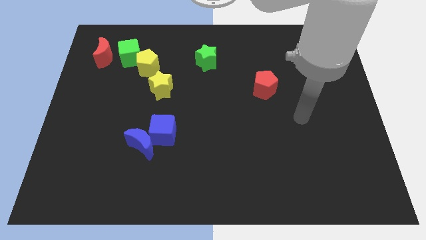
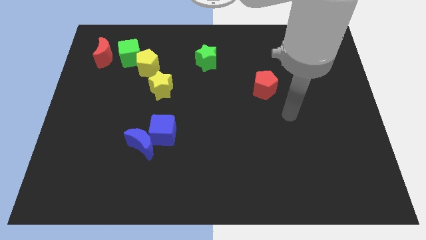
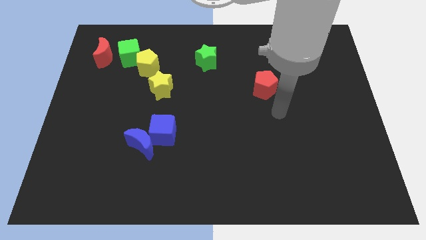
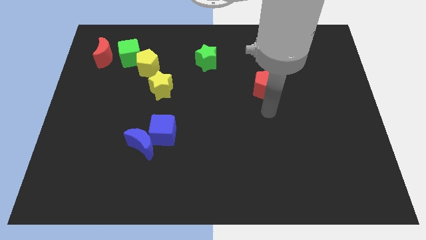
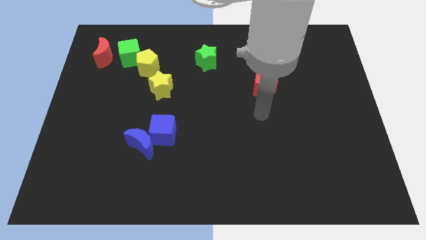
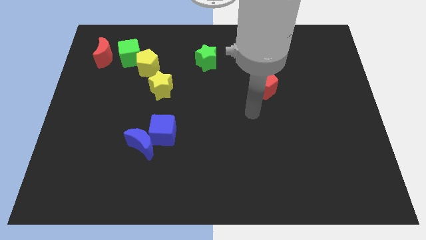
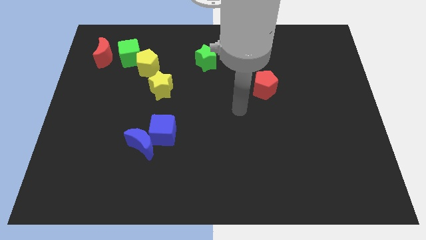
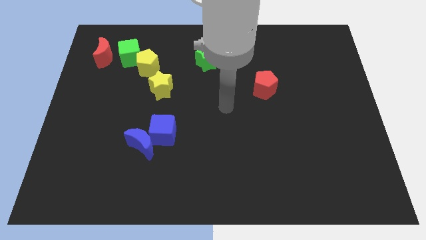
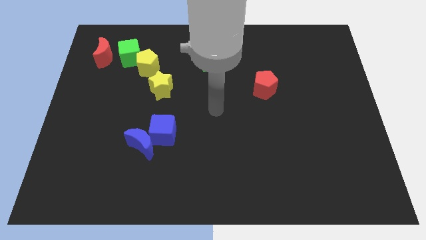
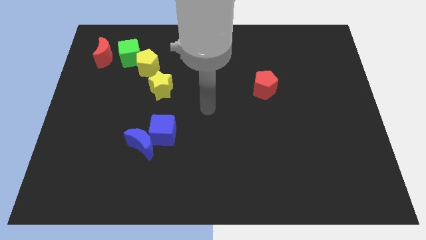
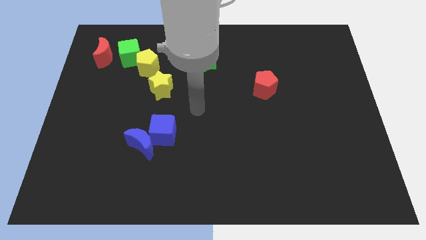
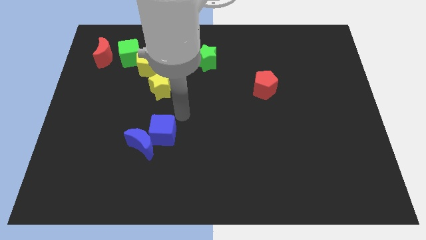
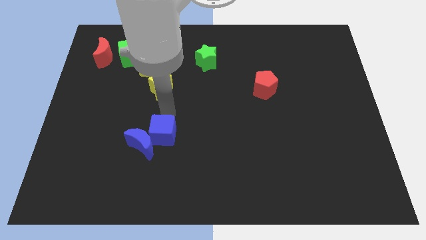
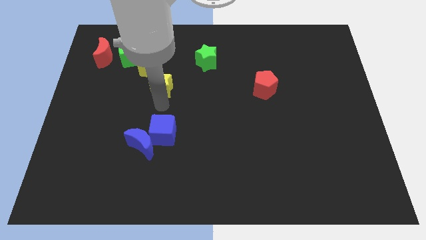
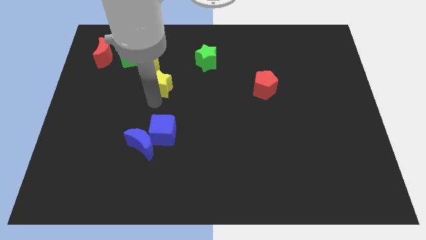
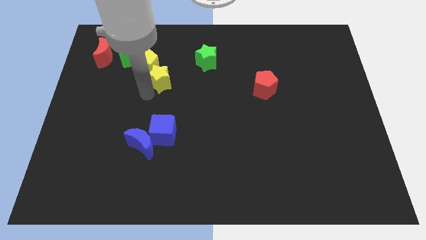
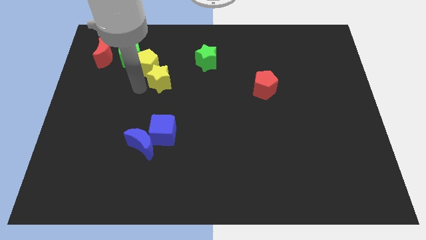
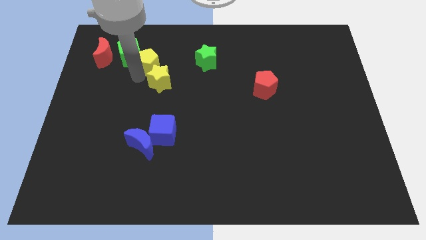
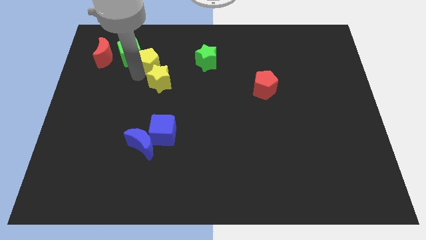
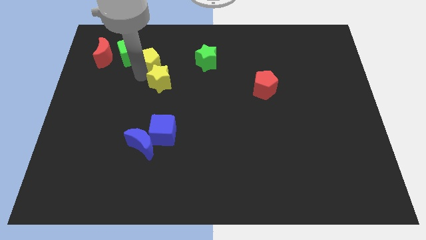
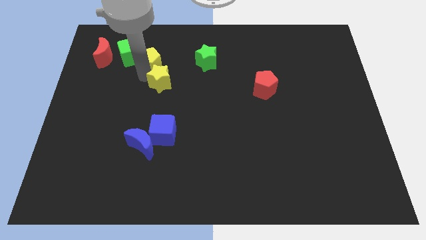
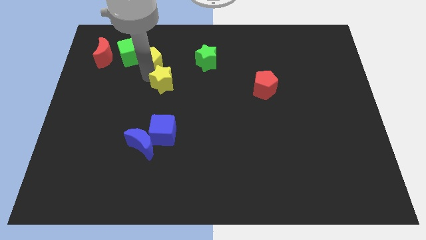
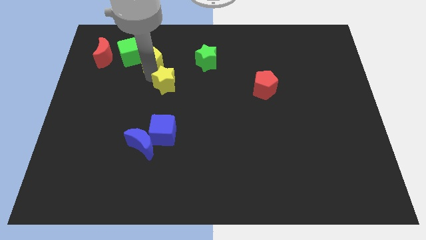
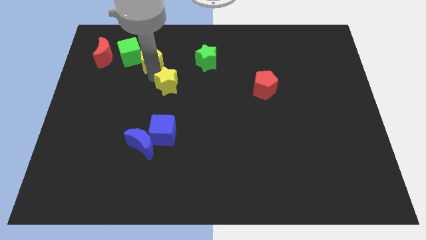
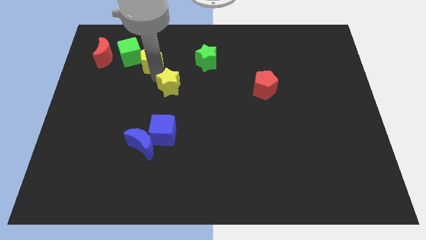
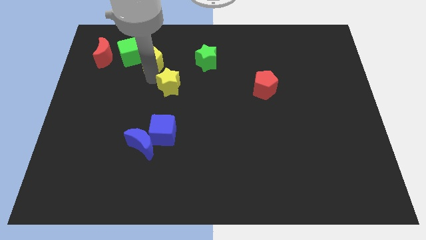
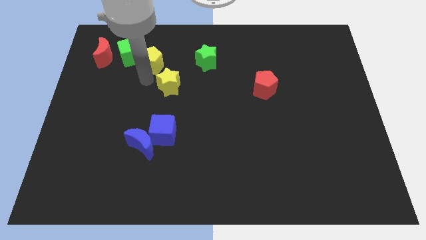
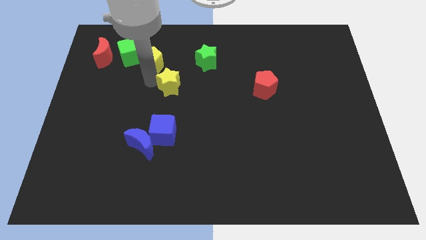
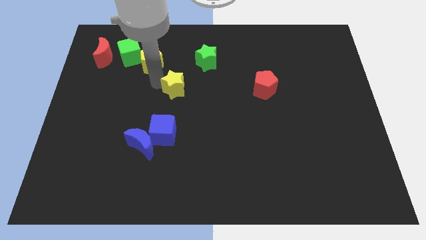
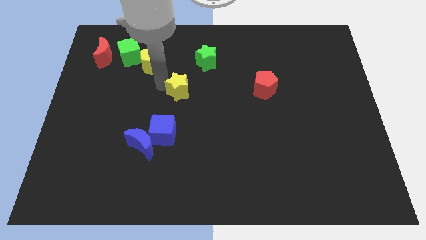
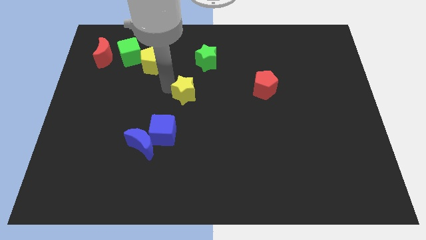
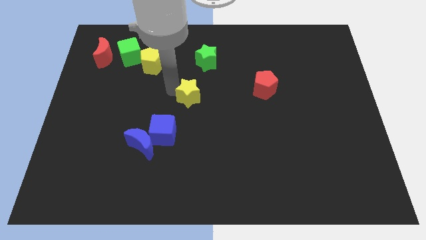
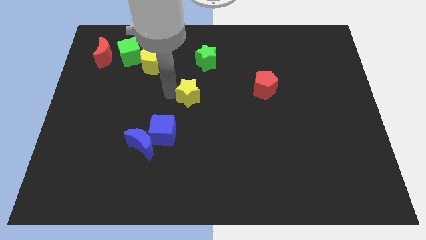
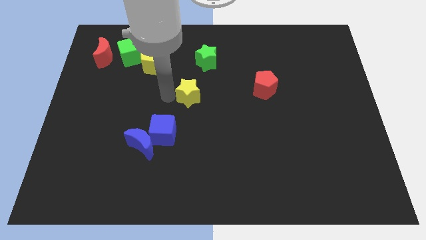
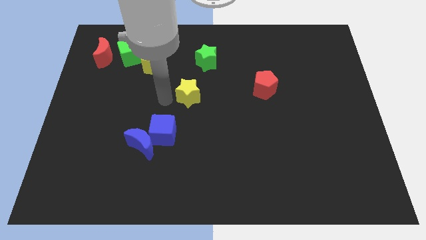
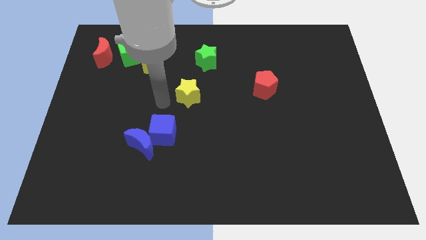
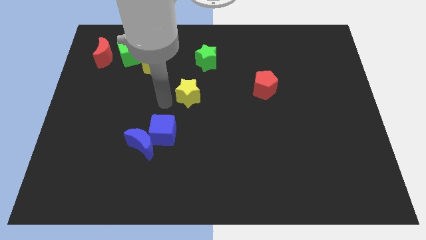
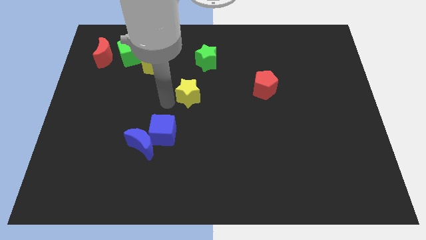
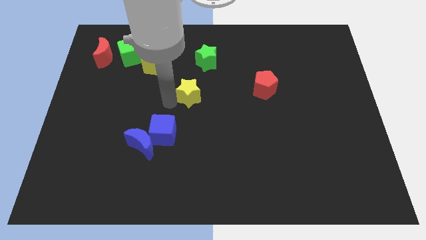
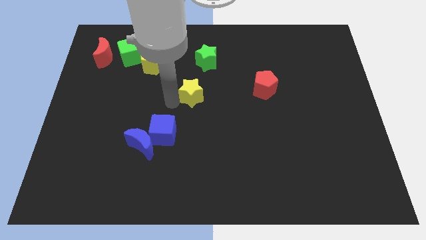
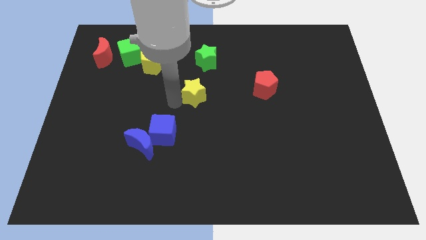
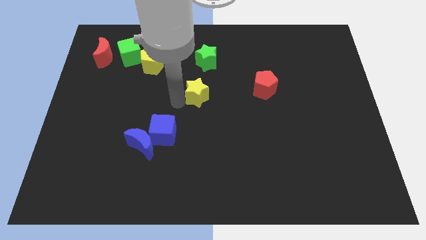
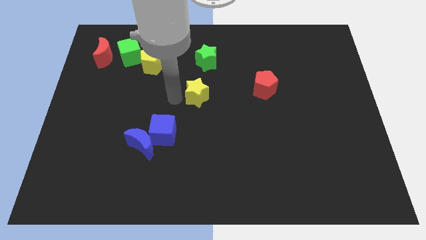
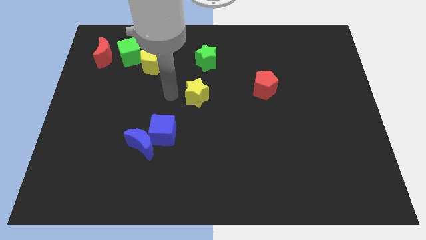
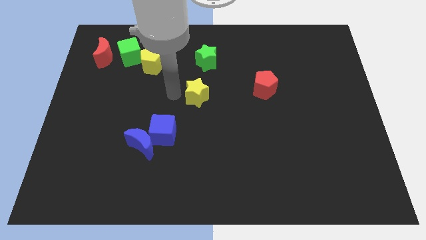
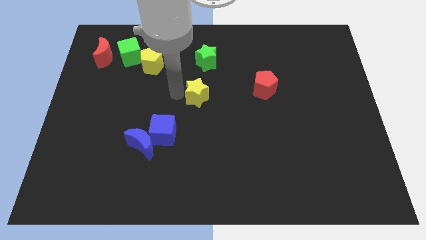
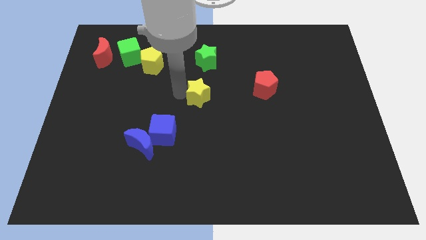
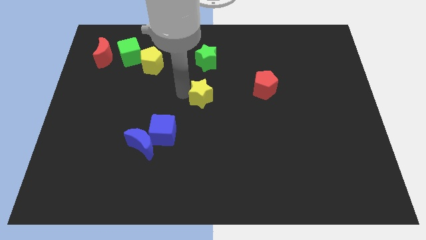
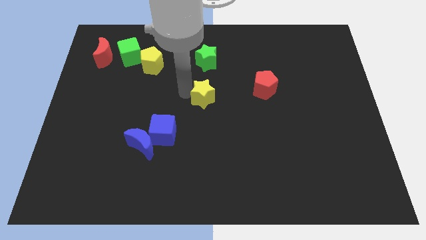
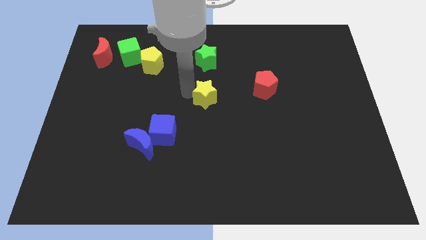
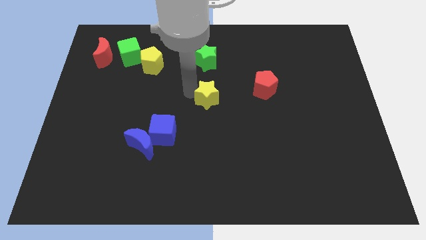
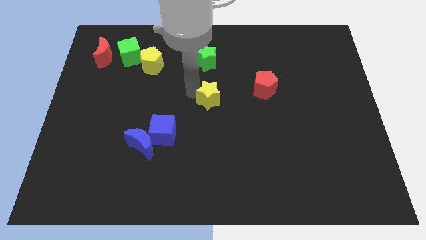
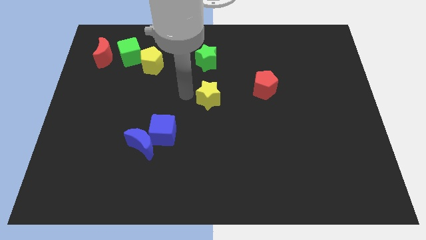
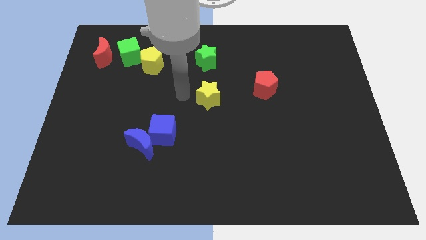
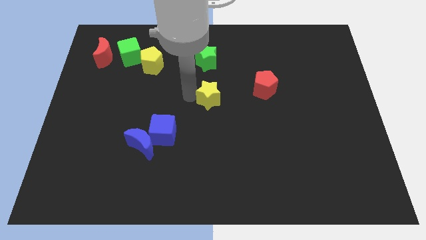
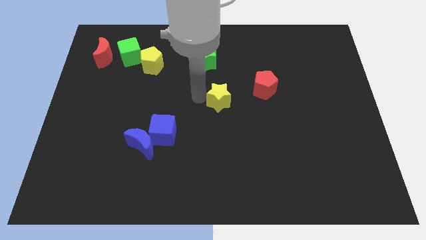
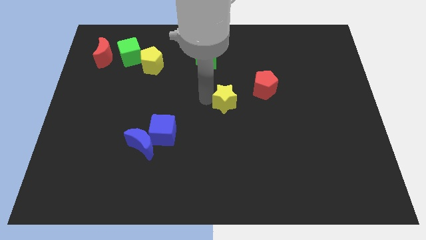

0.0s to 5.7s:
push the yellow star diagonally down and to the left of the red pentagon

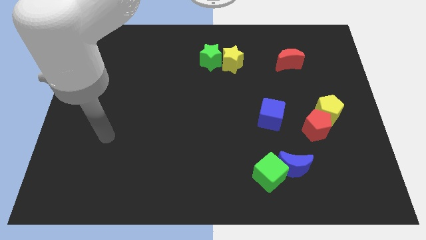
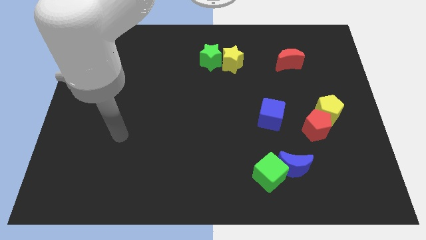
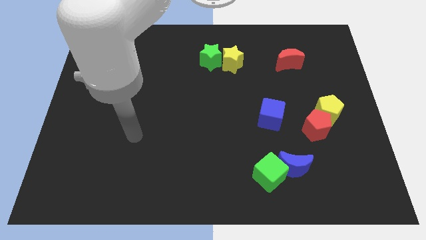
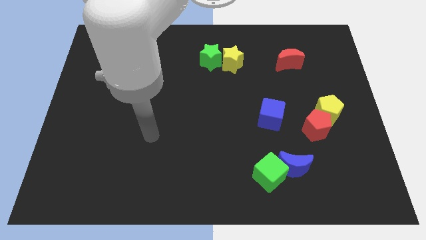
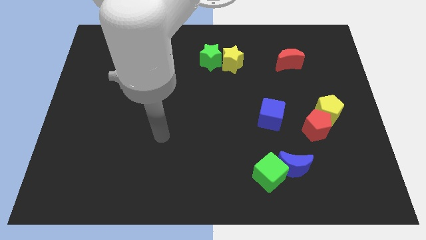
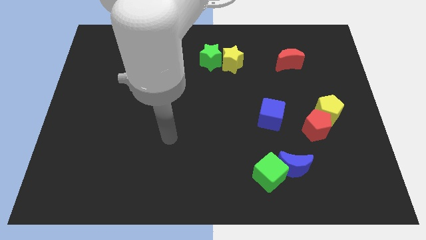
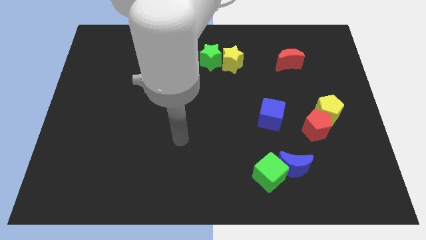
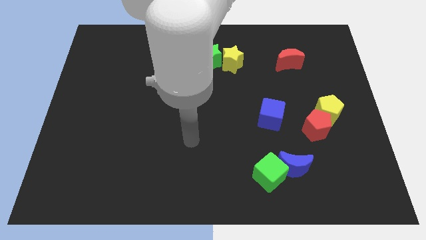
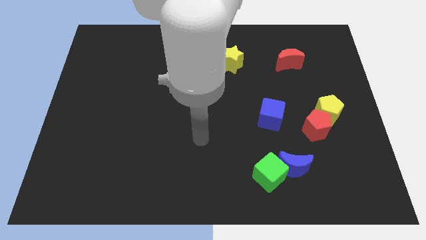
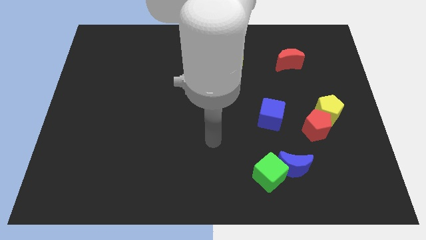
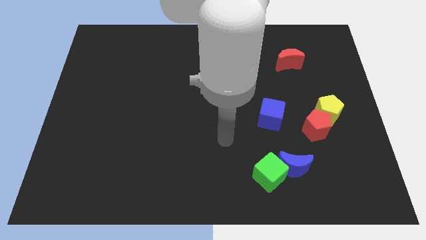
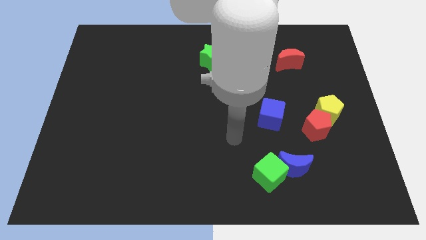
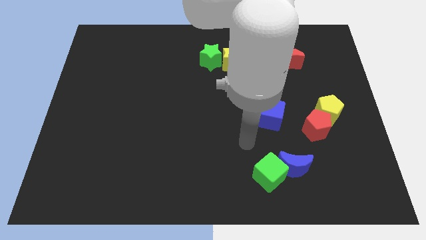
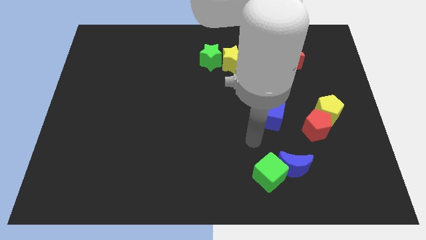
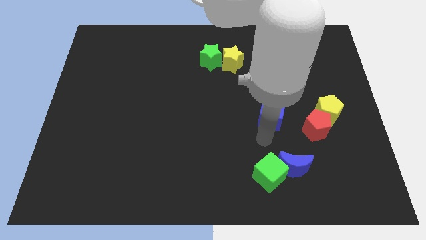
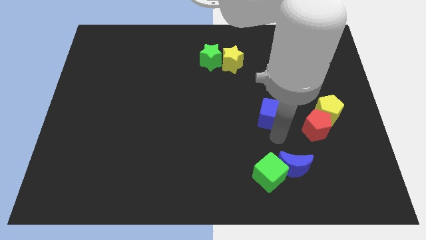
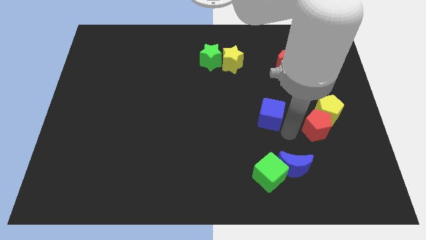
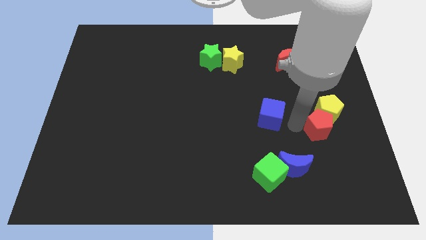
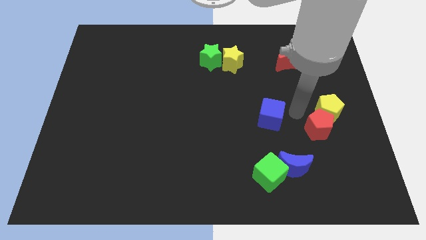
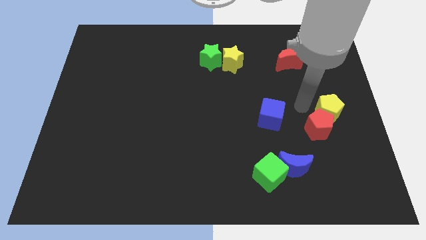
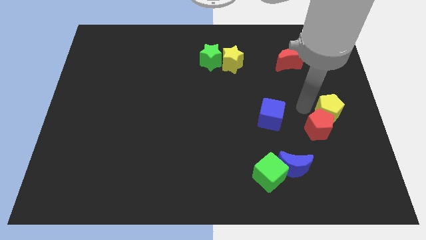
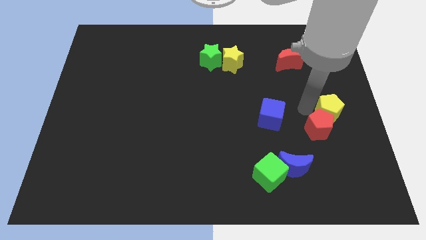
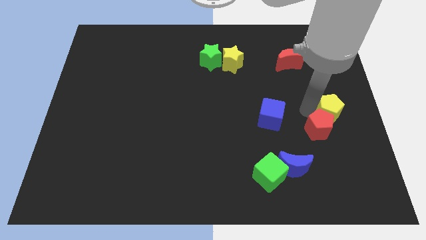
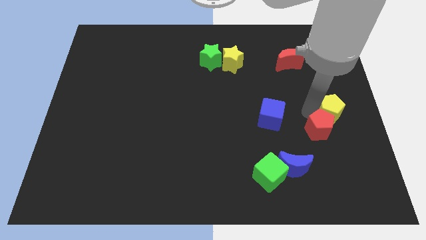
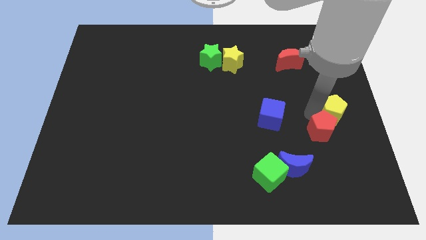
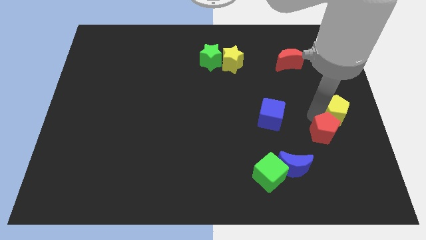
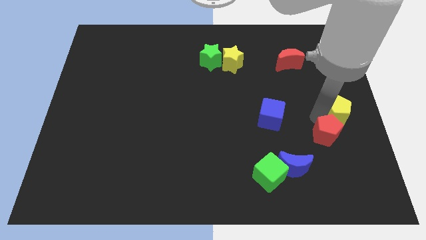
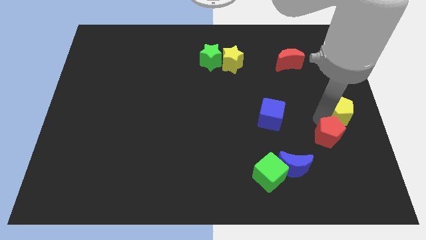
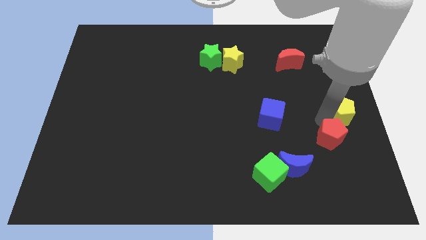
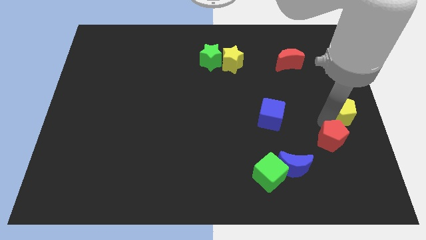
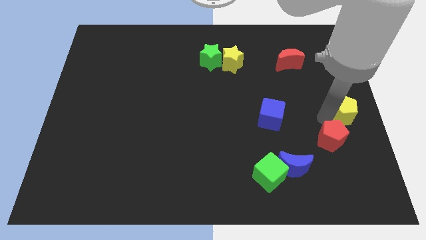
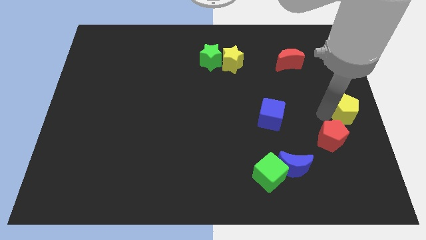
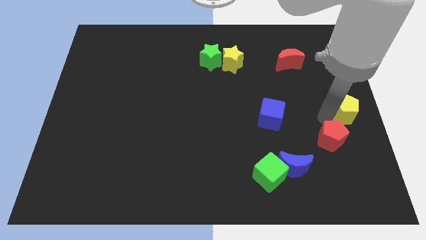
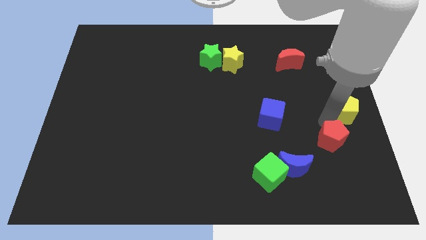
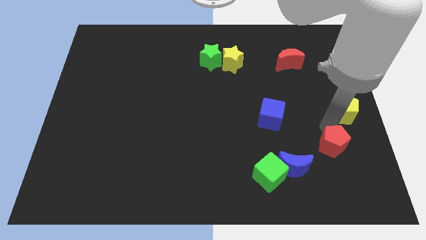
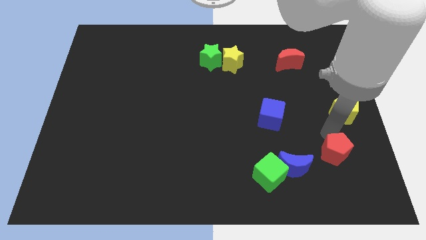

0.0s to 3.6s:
put the red pentagon to the right of the blue moon
